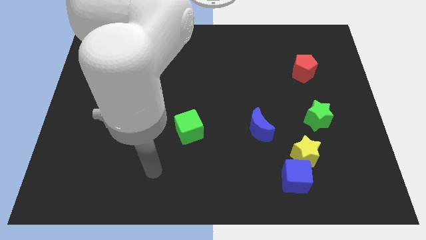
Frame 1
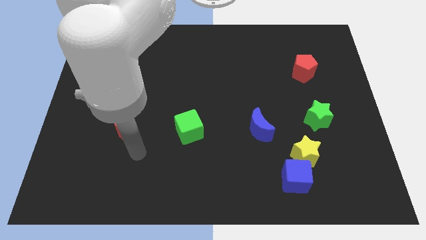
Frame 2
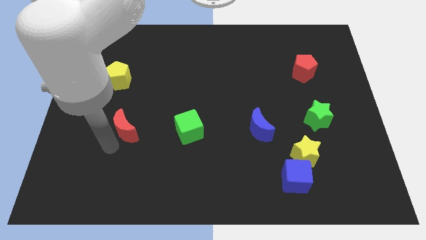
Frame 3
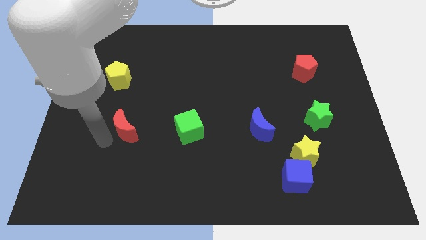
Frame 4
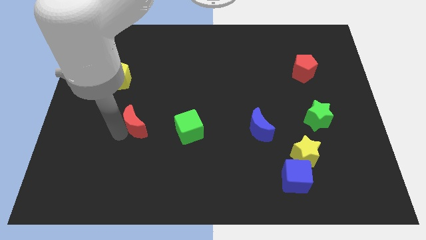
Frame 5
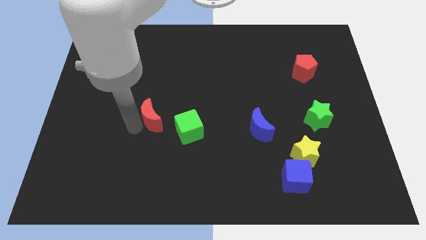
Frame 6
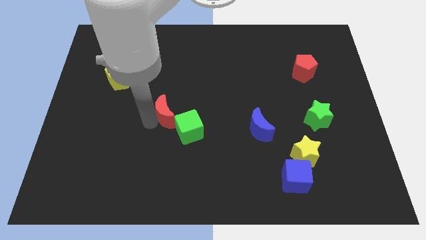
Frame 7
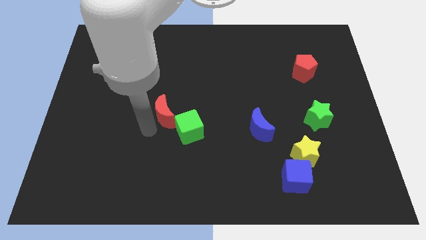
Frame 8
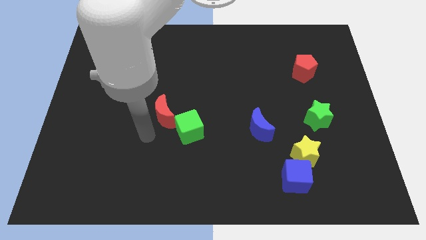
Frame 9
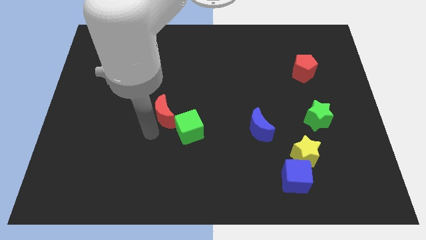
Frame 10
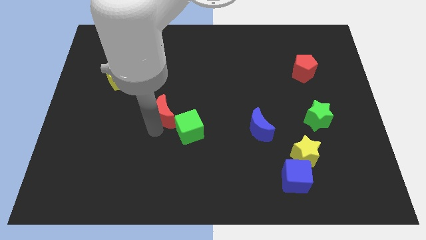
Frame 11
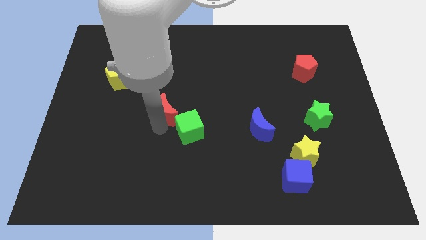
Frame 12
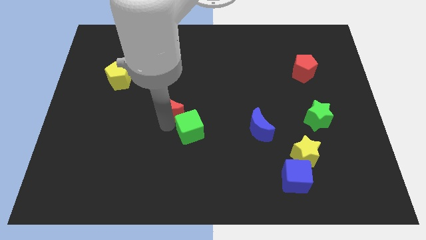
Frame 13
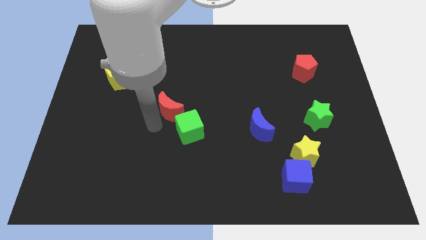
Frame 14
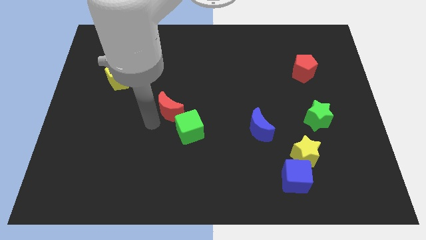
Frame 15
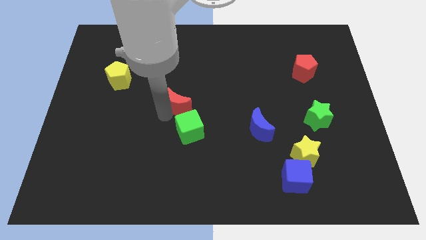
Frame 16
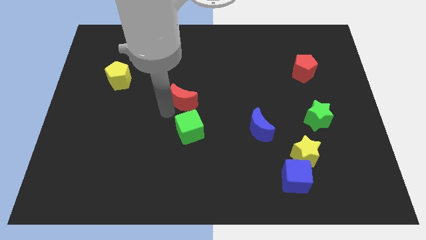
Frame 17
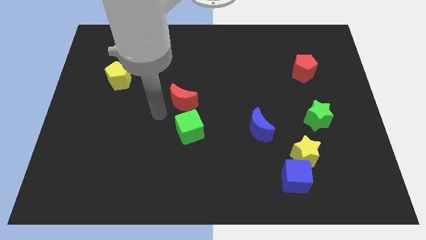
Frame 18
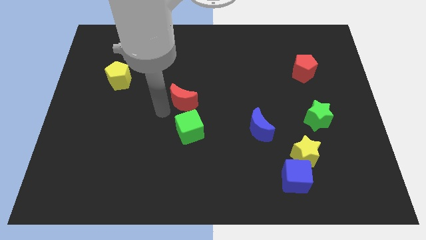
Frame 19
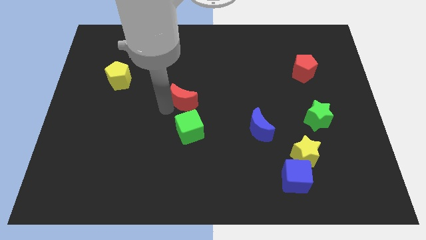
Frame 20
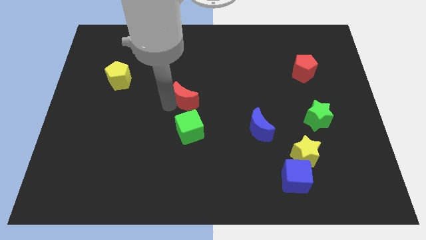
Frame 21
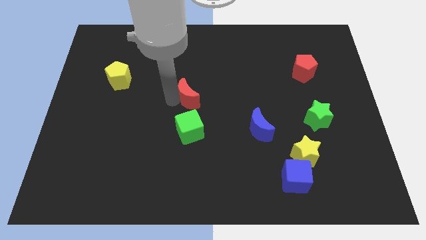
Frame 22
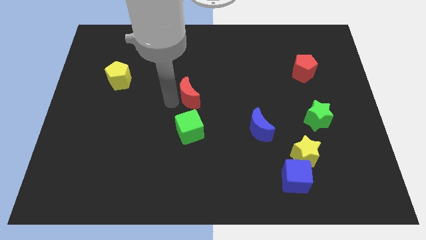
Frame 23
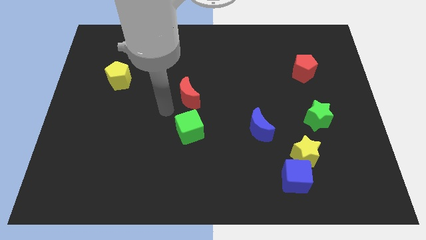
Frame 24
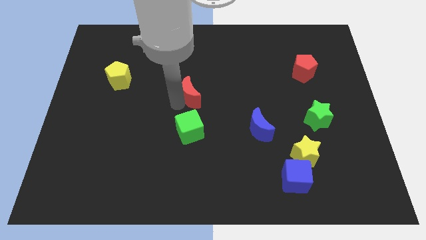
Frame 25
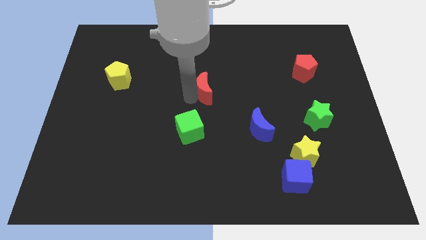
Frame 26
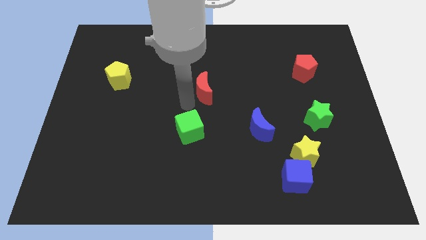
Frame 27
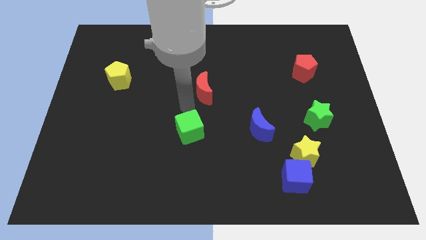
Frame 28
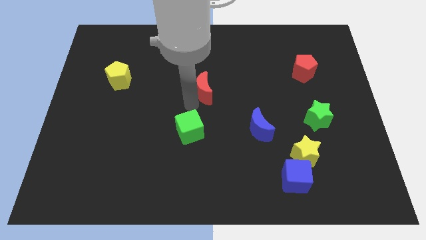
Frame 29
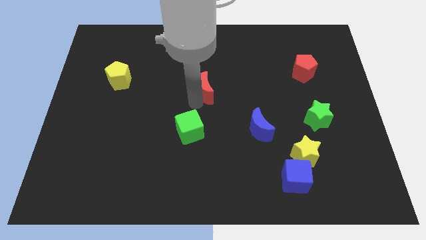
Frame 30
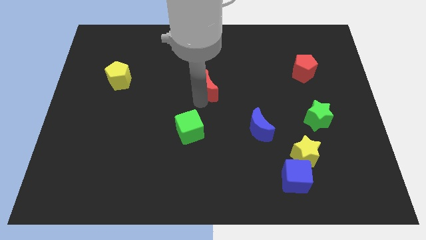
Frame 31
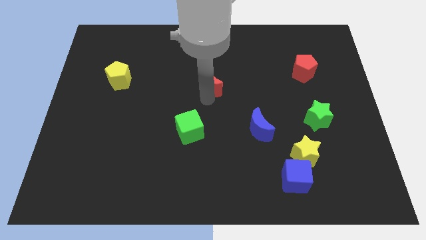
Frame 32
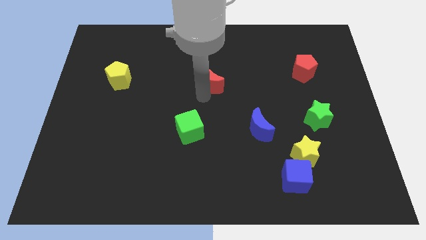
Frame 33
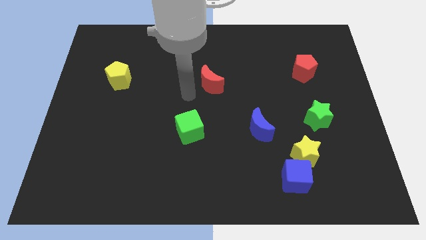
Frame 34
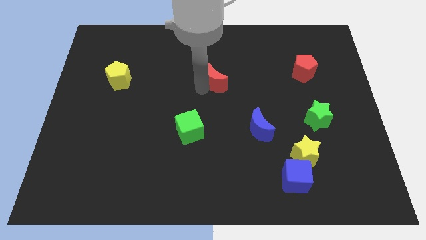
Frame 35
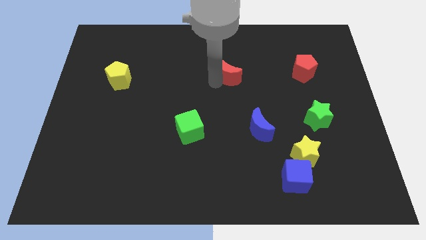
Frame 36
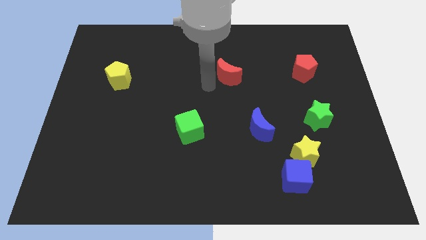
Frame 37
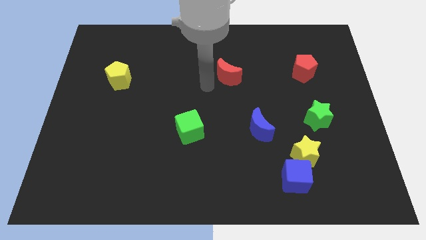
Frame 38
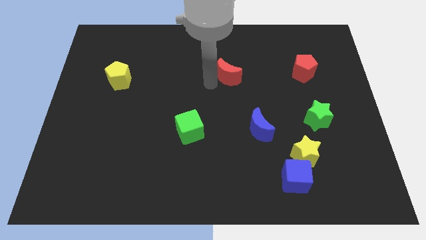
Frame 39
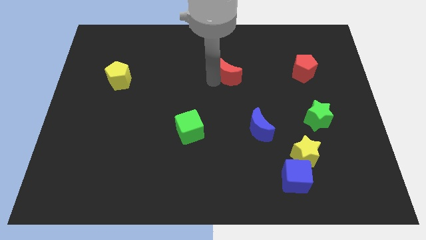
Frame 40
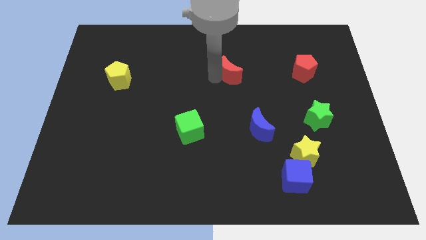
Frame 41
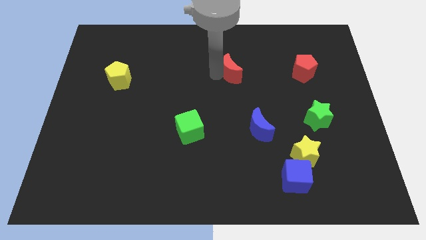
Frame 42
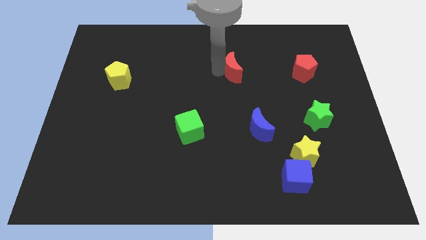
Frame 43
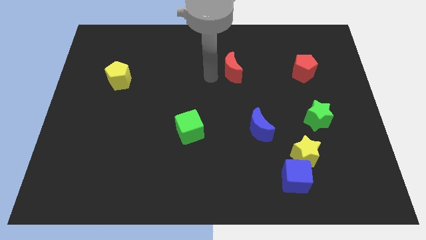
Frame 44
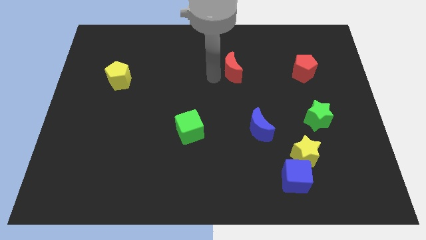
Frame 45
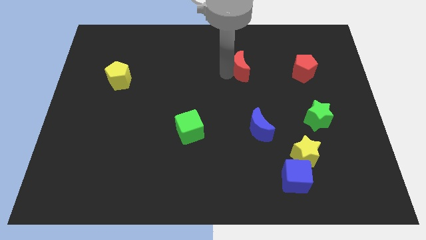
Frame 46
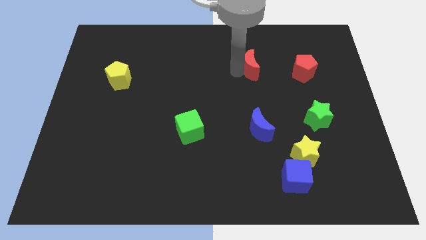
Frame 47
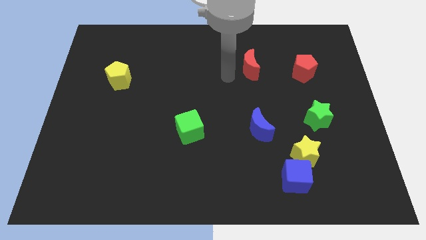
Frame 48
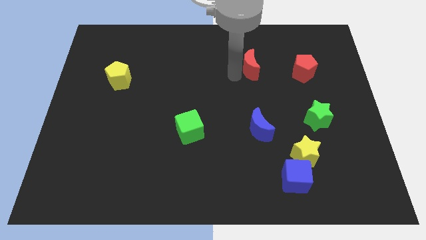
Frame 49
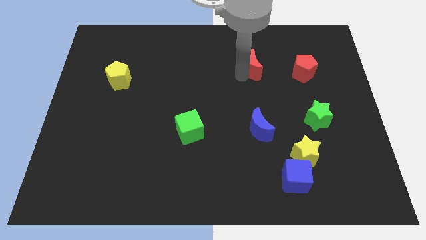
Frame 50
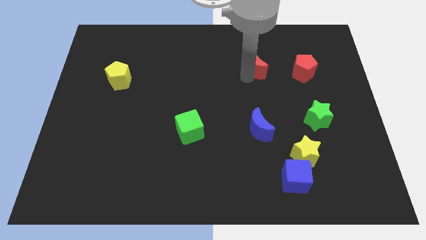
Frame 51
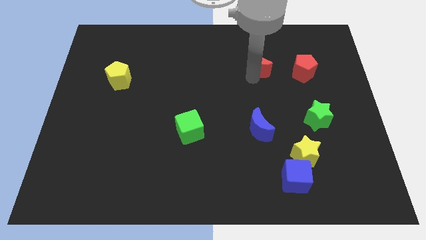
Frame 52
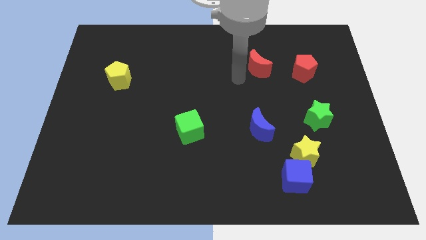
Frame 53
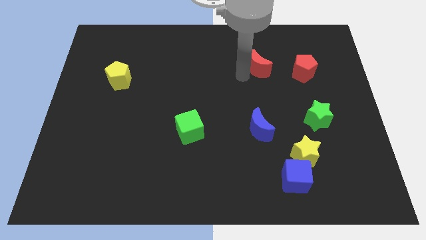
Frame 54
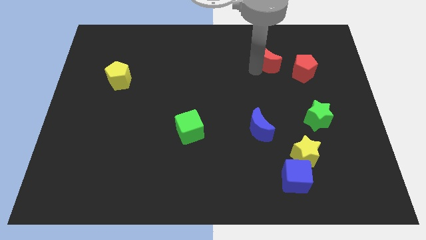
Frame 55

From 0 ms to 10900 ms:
slide the red moon diagonally up and to the left of the red pentagon

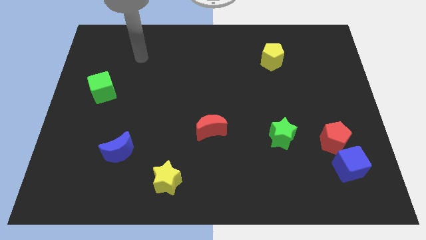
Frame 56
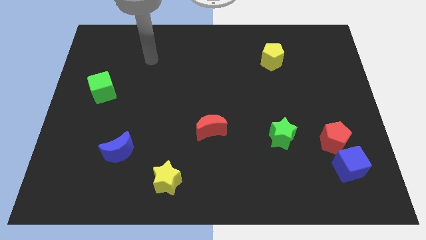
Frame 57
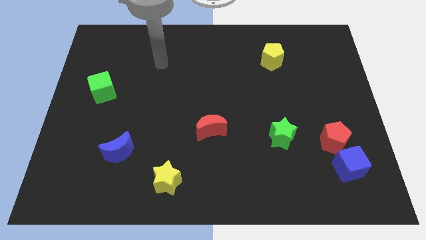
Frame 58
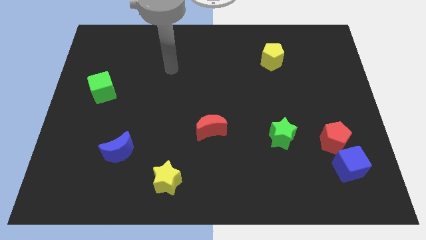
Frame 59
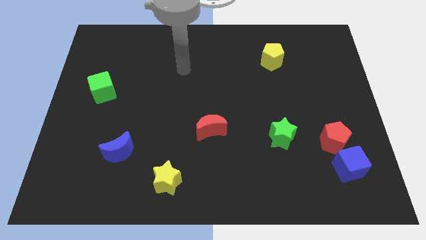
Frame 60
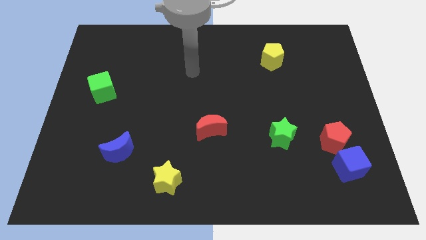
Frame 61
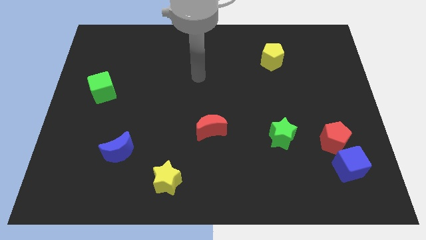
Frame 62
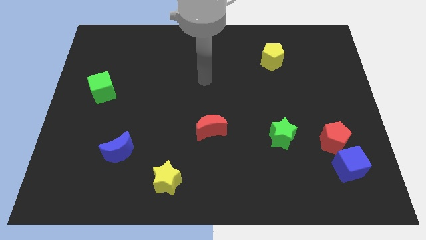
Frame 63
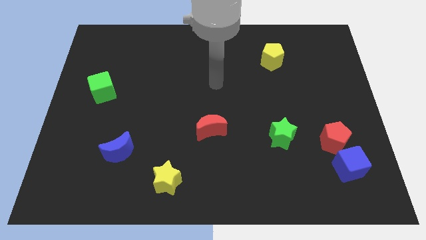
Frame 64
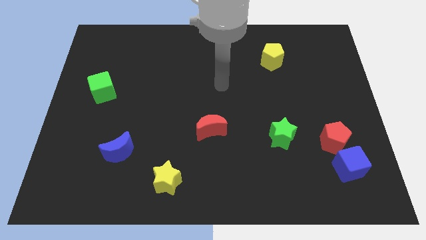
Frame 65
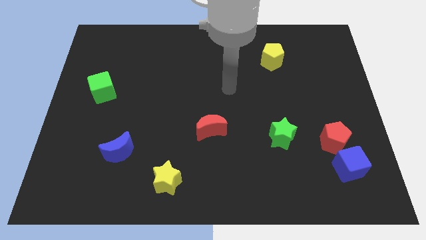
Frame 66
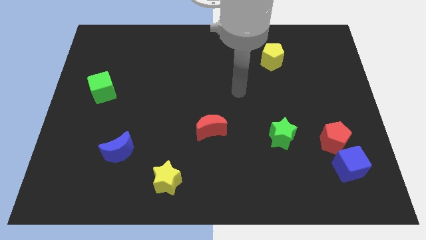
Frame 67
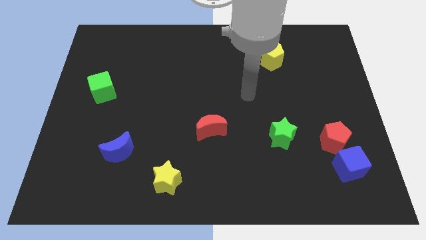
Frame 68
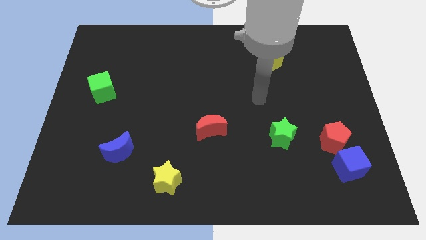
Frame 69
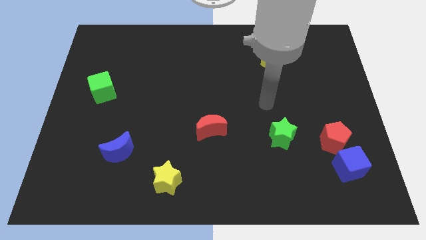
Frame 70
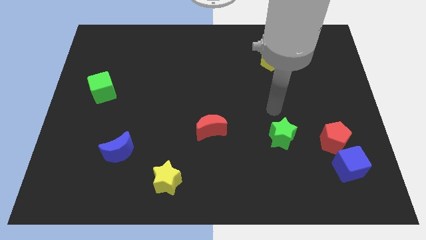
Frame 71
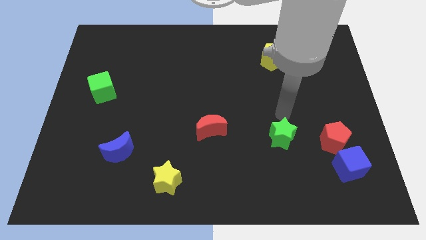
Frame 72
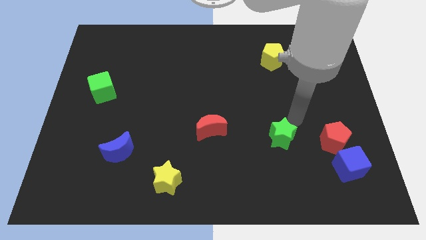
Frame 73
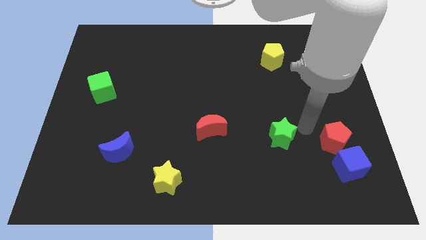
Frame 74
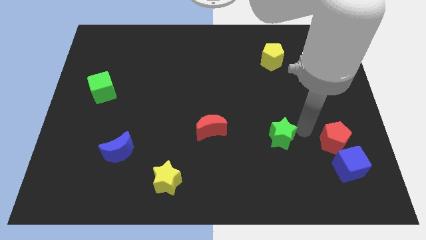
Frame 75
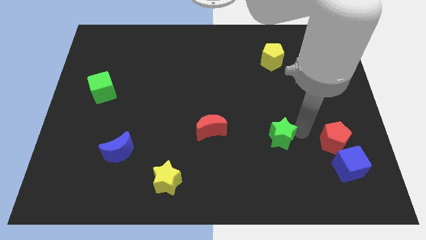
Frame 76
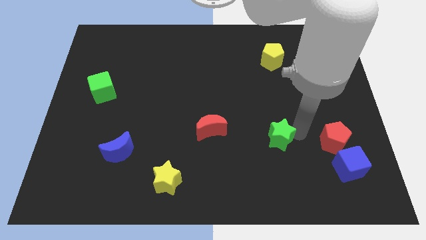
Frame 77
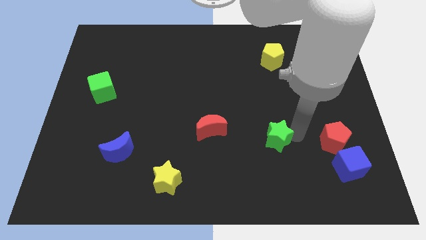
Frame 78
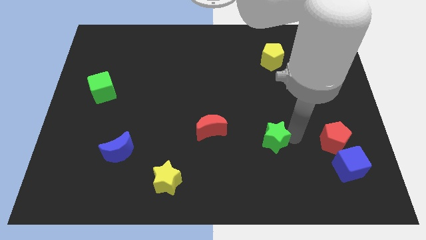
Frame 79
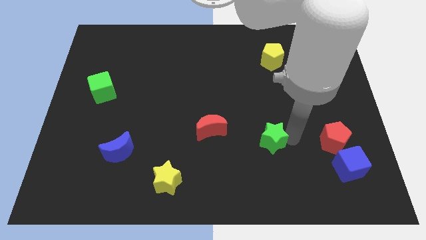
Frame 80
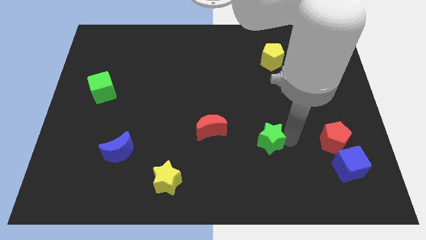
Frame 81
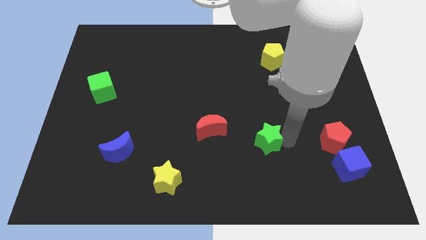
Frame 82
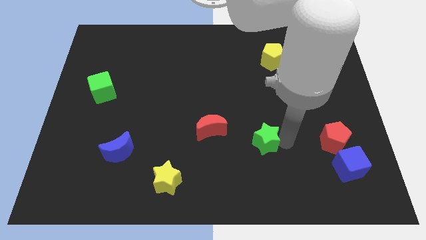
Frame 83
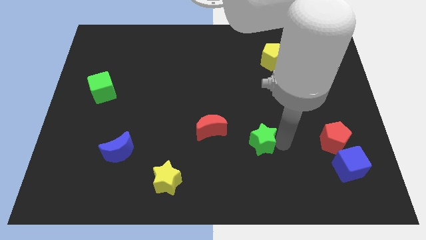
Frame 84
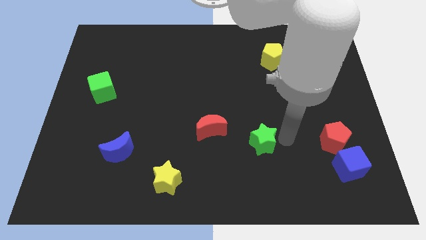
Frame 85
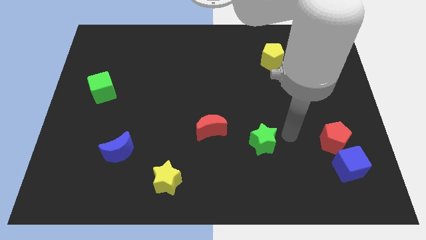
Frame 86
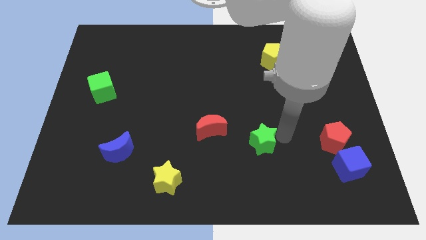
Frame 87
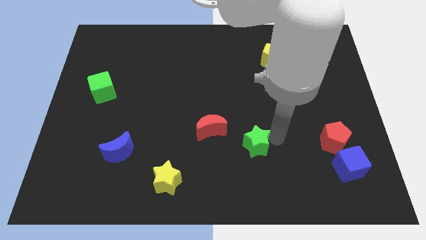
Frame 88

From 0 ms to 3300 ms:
move the green star diagonally down and to the right of the red moon
